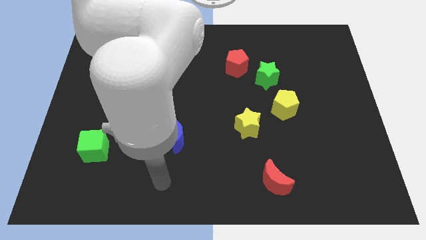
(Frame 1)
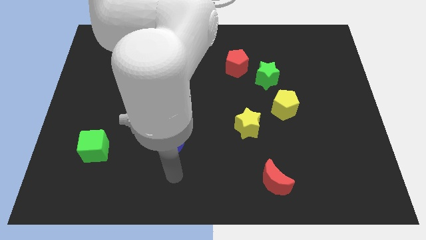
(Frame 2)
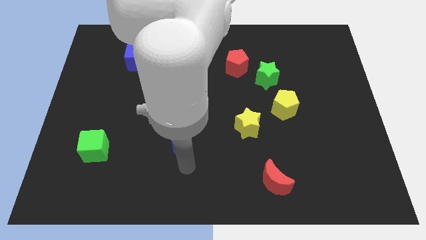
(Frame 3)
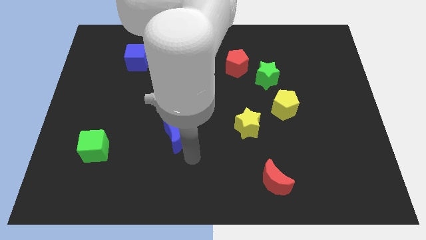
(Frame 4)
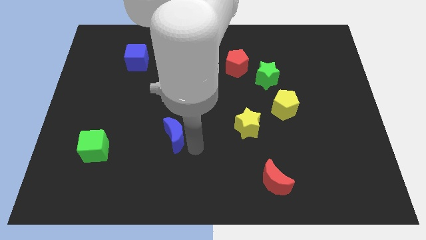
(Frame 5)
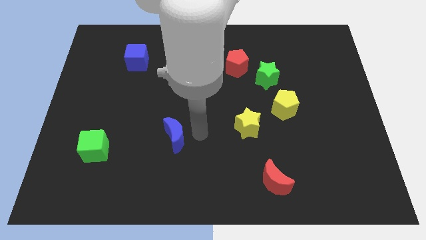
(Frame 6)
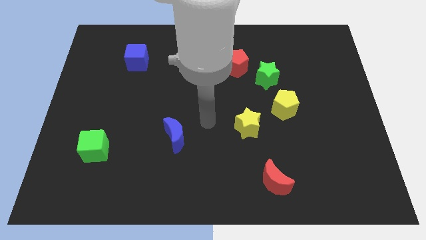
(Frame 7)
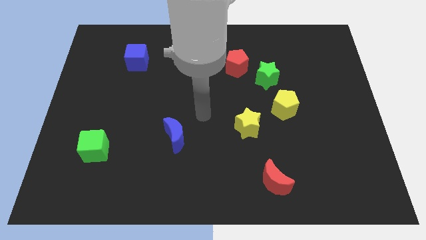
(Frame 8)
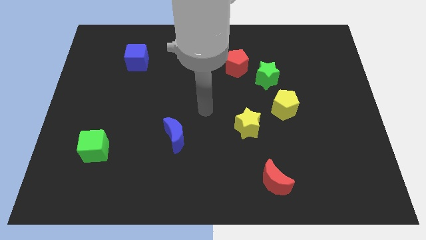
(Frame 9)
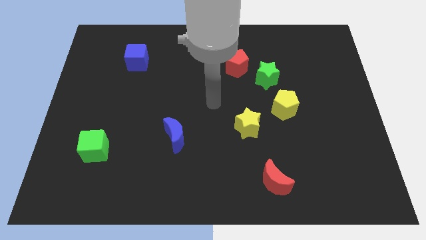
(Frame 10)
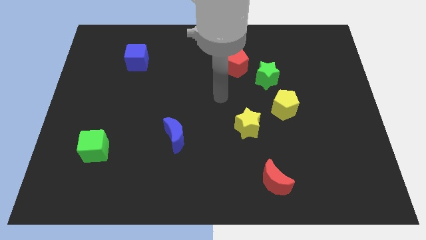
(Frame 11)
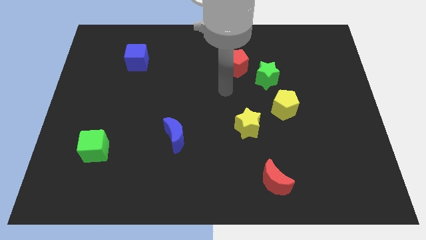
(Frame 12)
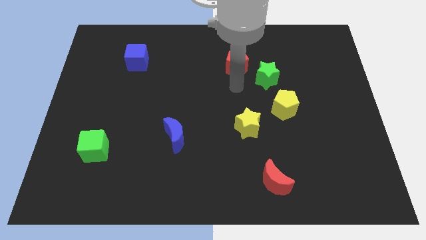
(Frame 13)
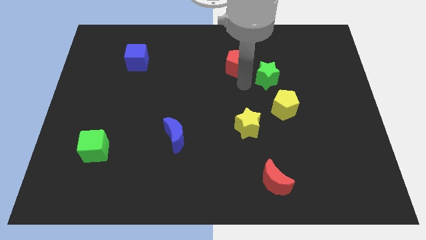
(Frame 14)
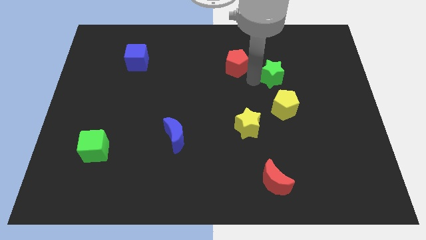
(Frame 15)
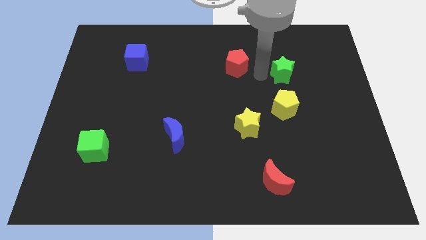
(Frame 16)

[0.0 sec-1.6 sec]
pull the red pentagon apart from the green star

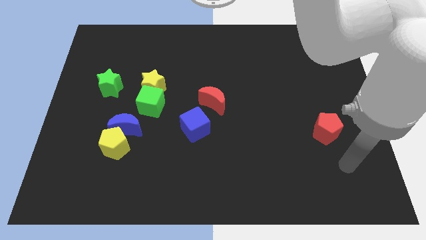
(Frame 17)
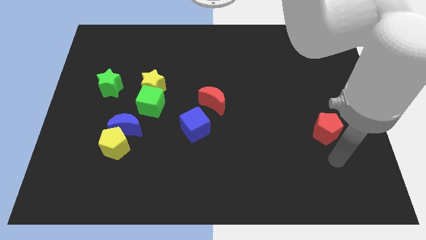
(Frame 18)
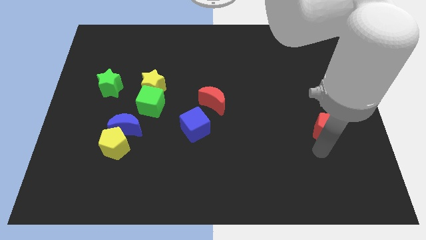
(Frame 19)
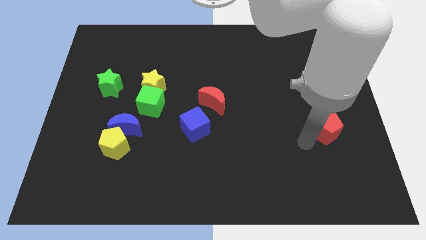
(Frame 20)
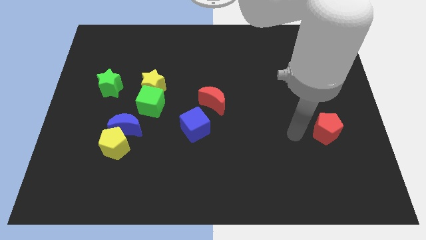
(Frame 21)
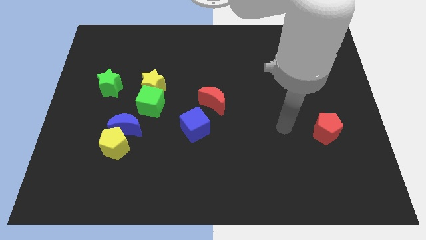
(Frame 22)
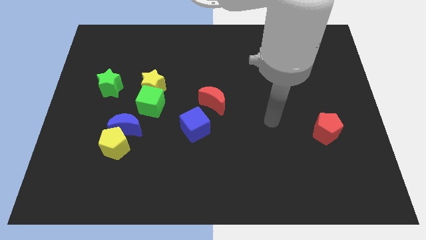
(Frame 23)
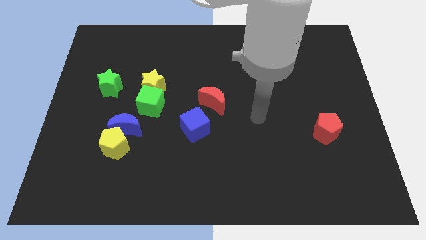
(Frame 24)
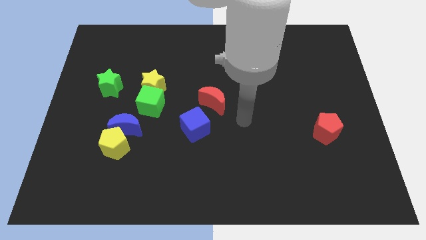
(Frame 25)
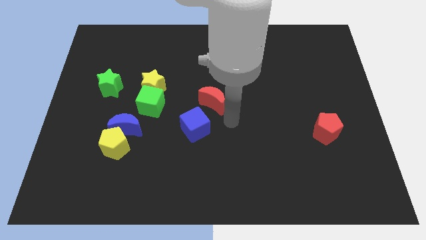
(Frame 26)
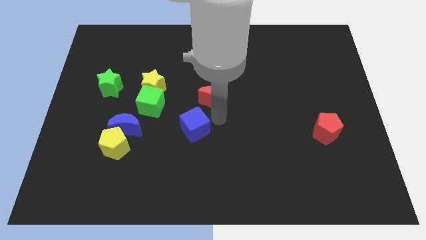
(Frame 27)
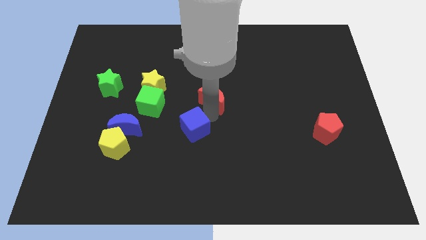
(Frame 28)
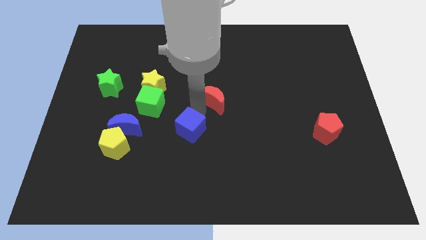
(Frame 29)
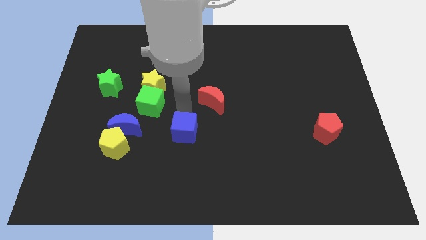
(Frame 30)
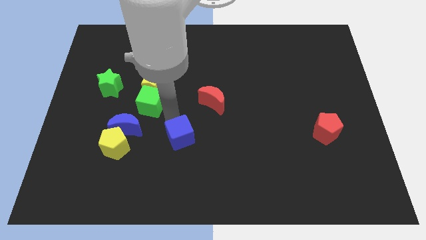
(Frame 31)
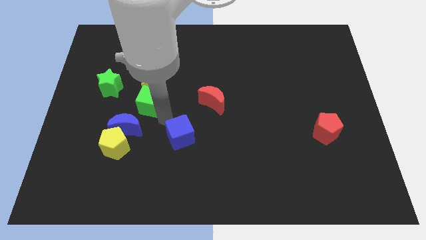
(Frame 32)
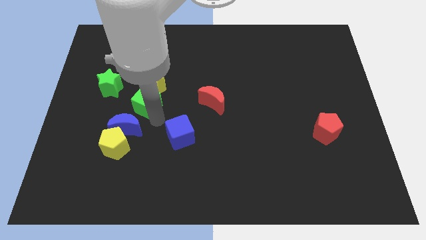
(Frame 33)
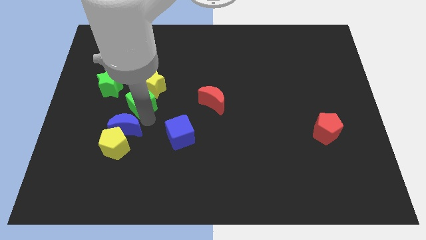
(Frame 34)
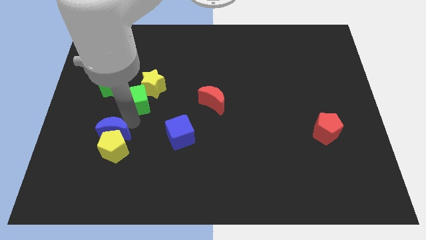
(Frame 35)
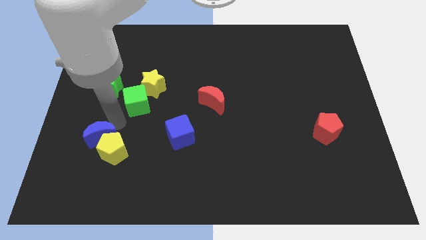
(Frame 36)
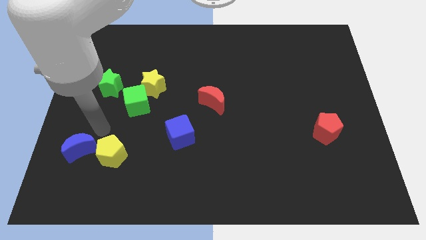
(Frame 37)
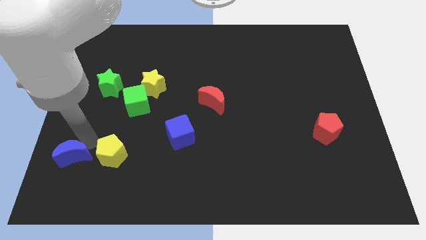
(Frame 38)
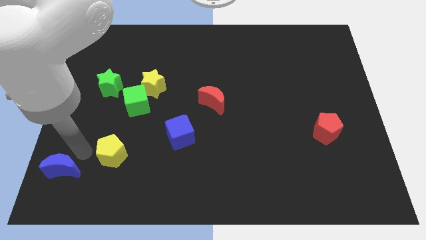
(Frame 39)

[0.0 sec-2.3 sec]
move the yellow pentagon away from the blue moon

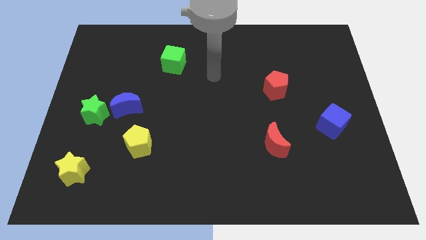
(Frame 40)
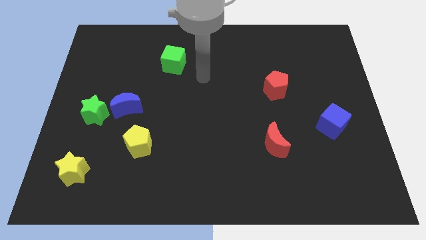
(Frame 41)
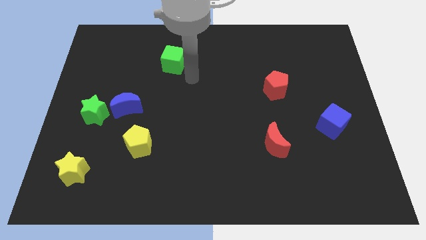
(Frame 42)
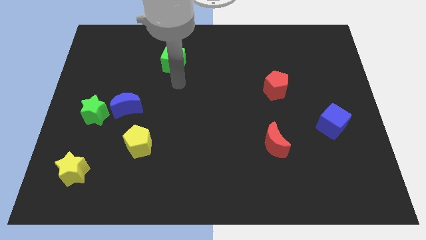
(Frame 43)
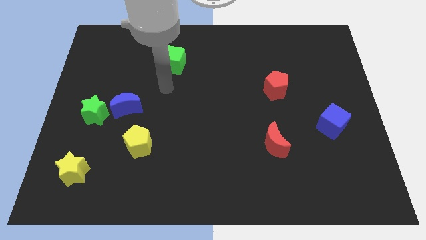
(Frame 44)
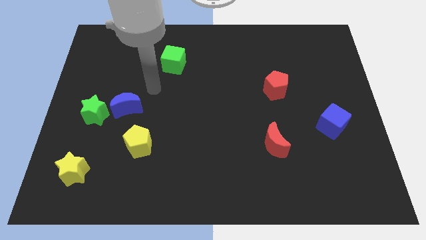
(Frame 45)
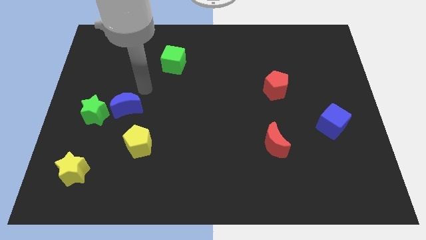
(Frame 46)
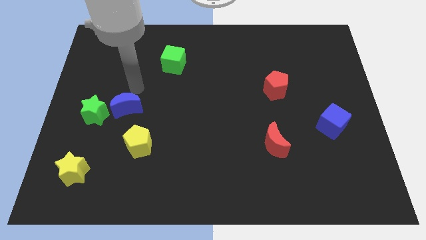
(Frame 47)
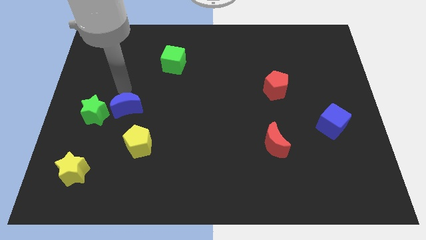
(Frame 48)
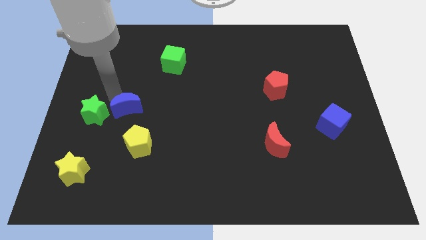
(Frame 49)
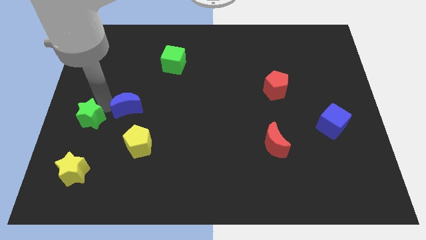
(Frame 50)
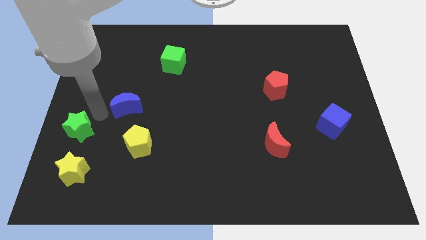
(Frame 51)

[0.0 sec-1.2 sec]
pull the blue moon apart from the green star

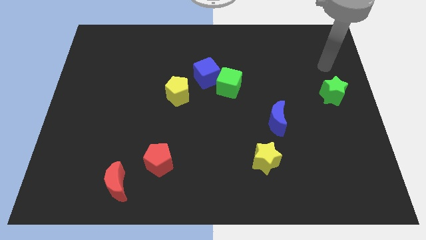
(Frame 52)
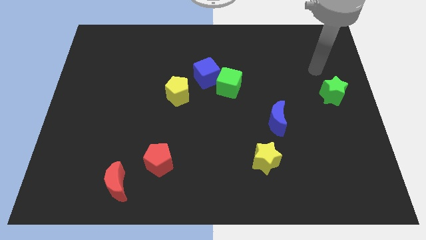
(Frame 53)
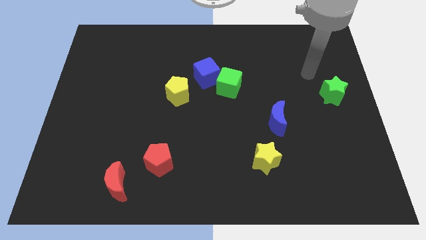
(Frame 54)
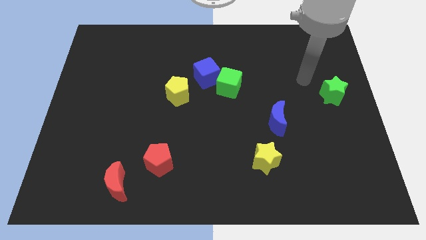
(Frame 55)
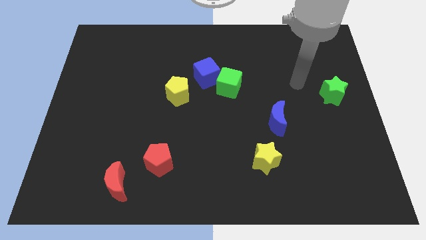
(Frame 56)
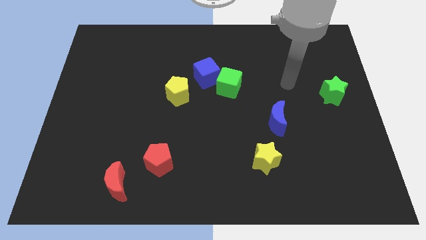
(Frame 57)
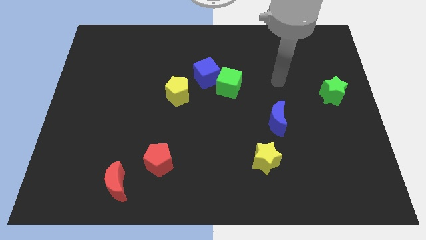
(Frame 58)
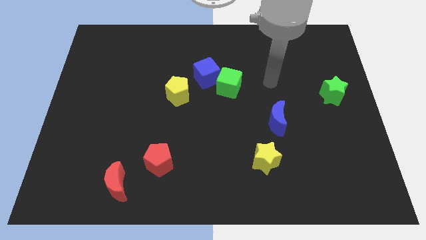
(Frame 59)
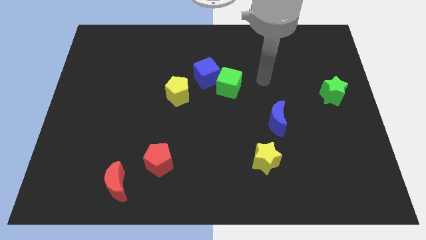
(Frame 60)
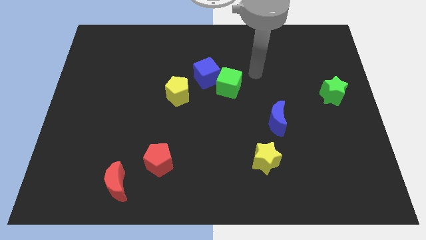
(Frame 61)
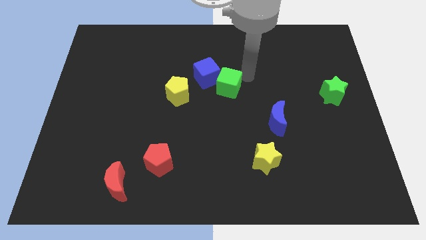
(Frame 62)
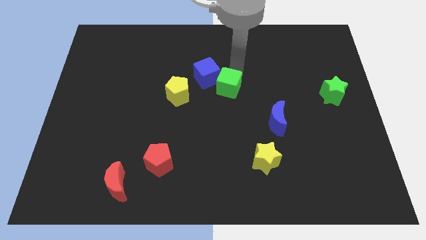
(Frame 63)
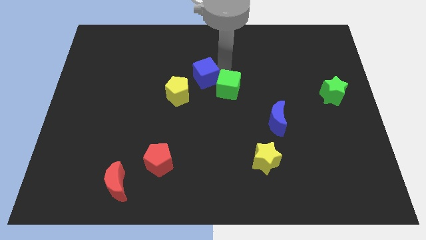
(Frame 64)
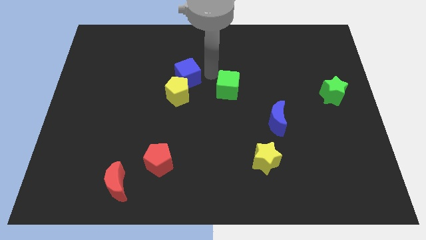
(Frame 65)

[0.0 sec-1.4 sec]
pull the green cube apart from the blue cube

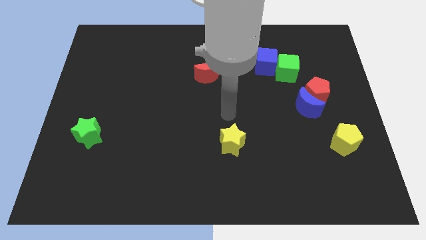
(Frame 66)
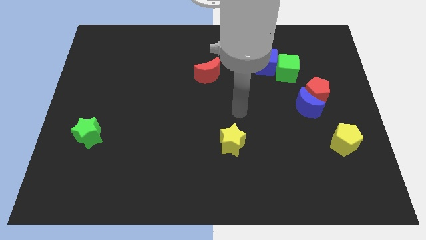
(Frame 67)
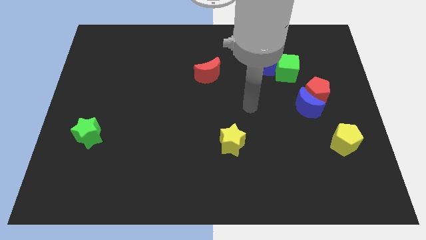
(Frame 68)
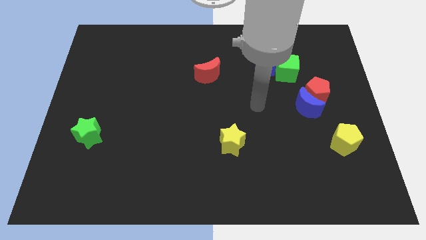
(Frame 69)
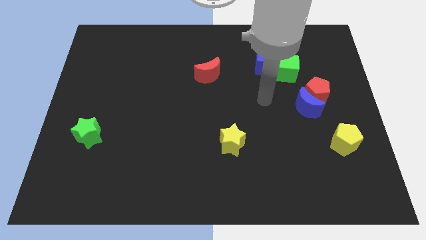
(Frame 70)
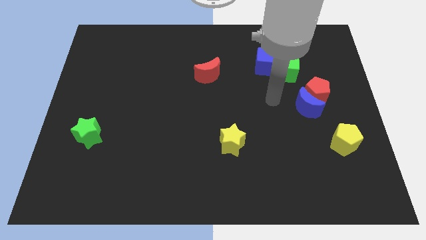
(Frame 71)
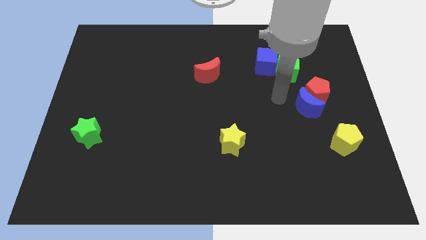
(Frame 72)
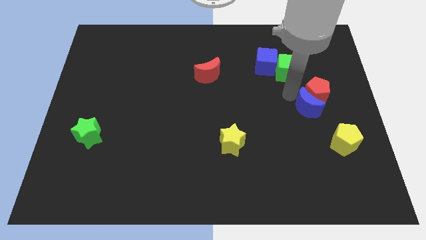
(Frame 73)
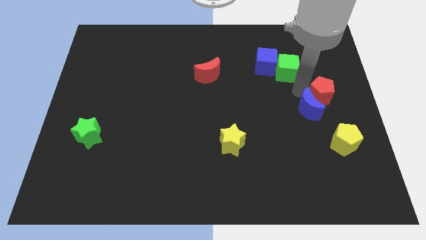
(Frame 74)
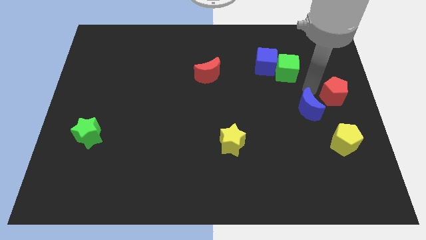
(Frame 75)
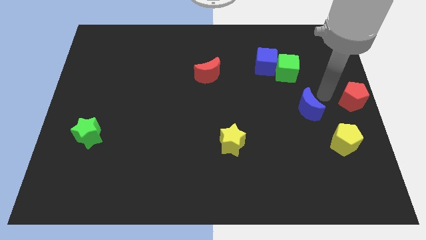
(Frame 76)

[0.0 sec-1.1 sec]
move the blue moon away from the red pentagon

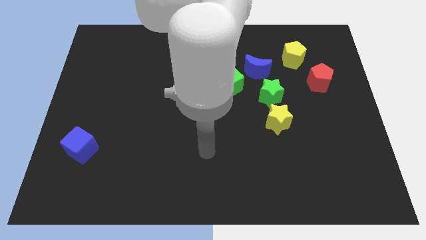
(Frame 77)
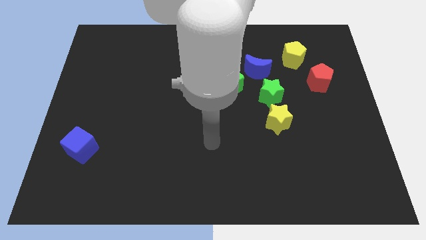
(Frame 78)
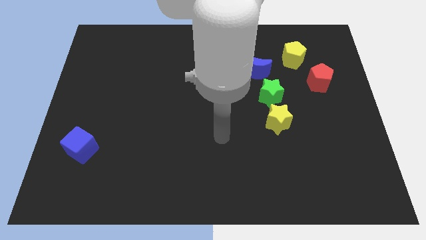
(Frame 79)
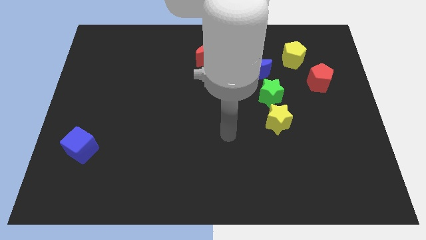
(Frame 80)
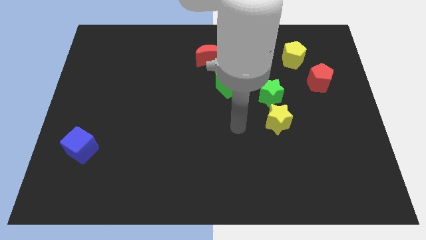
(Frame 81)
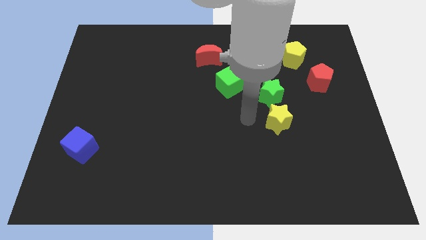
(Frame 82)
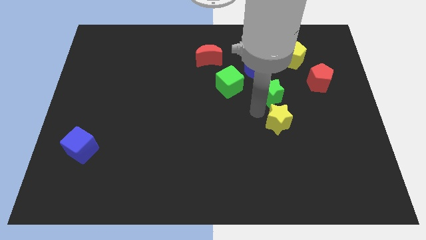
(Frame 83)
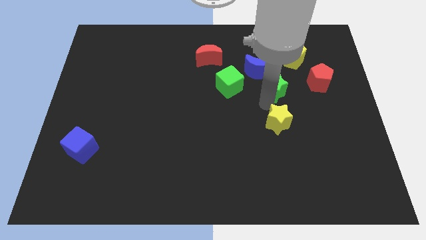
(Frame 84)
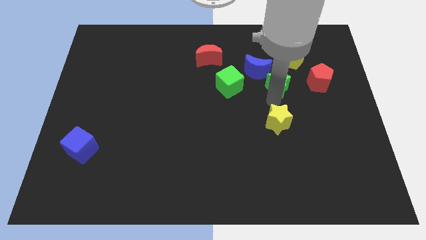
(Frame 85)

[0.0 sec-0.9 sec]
move the yellow star away from the green star

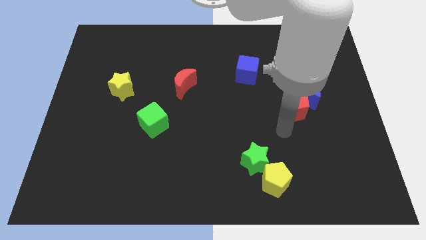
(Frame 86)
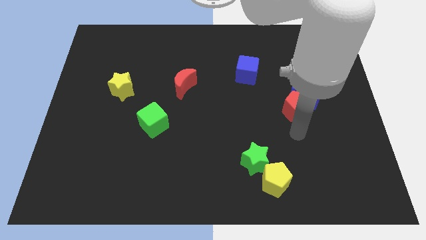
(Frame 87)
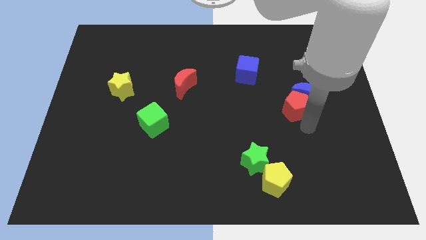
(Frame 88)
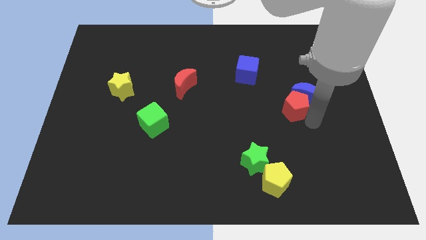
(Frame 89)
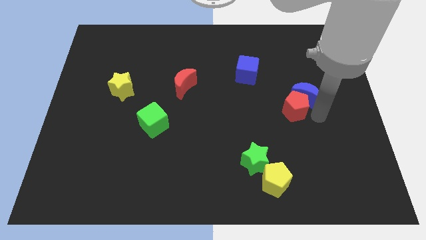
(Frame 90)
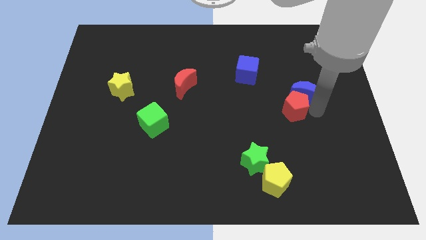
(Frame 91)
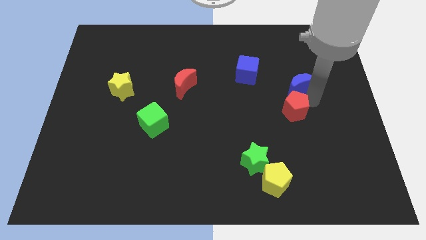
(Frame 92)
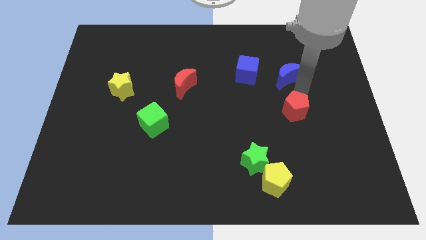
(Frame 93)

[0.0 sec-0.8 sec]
move the red pentagon away from the blue moon

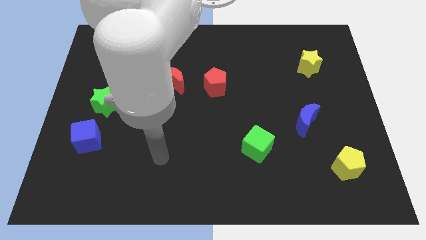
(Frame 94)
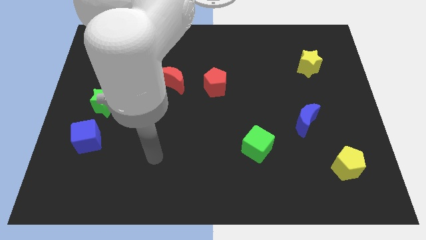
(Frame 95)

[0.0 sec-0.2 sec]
separate the blue cube from the green star
